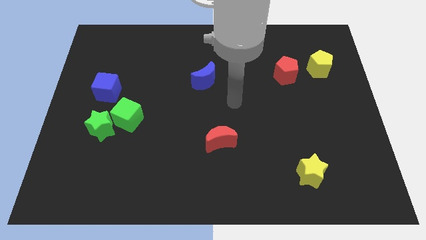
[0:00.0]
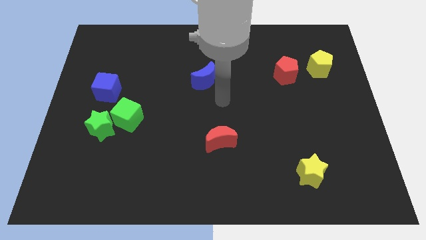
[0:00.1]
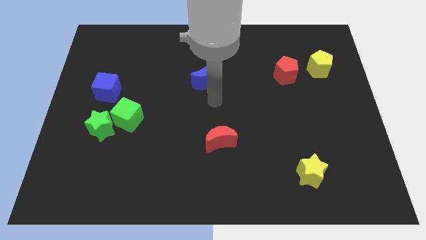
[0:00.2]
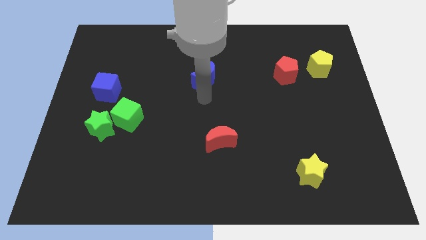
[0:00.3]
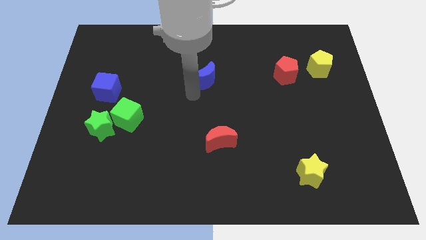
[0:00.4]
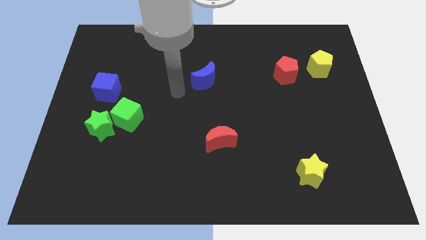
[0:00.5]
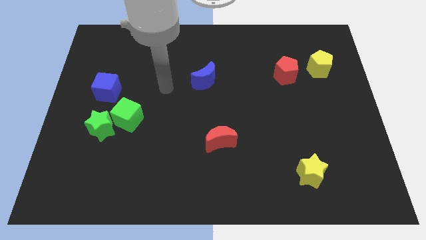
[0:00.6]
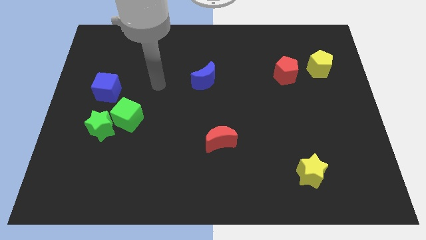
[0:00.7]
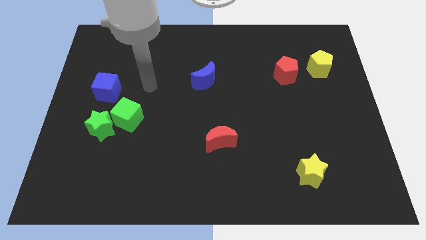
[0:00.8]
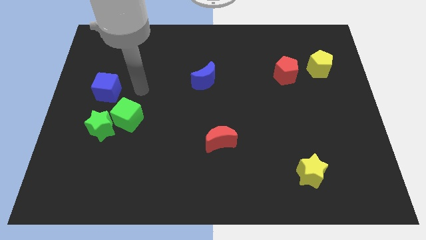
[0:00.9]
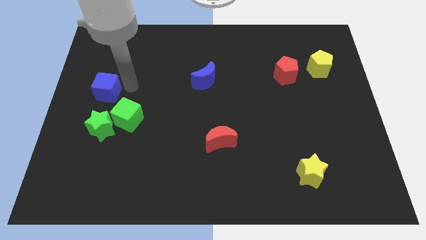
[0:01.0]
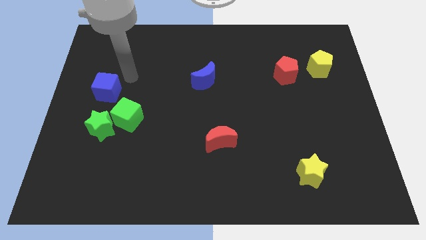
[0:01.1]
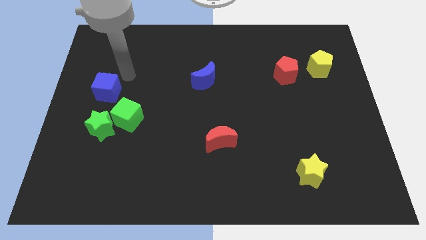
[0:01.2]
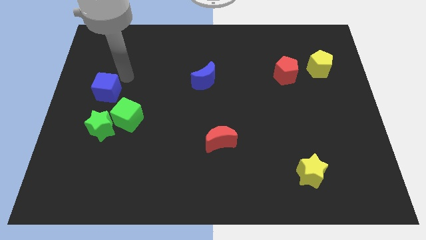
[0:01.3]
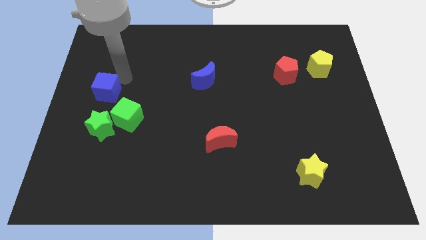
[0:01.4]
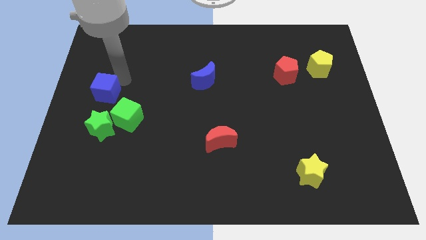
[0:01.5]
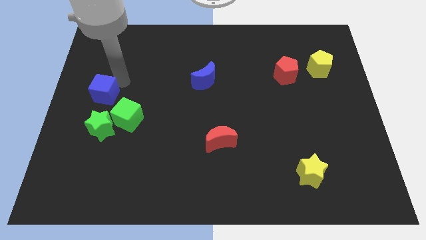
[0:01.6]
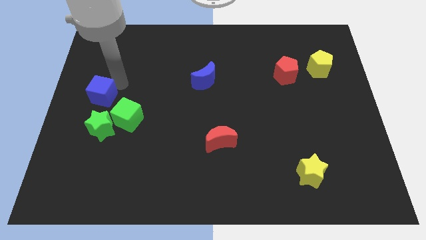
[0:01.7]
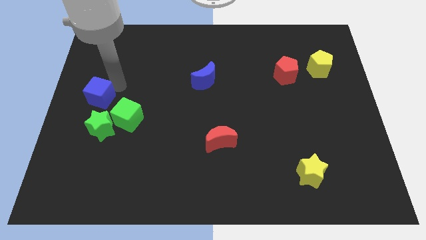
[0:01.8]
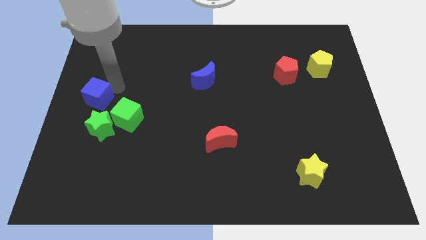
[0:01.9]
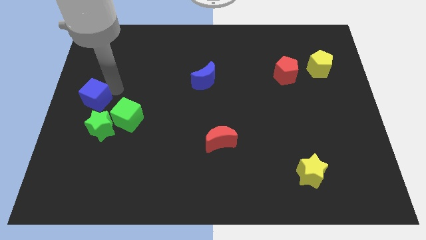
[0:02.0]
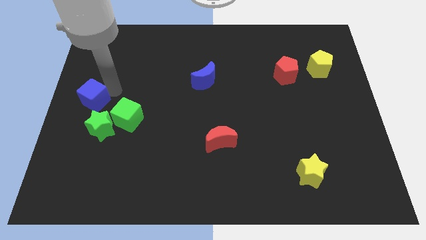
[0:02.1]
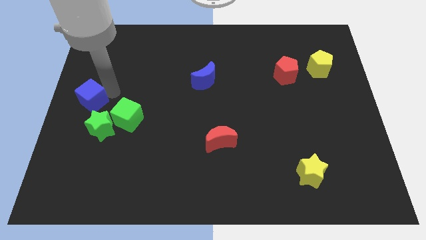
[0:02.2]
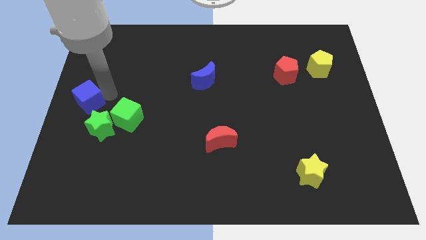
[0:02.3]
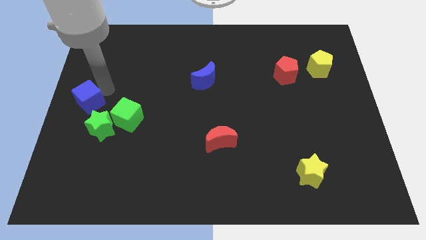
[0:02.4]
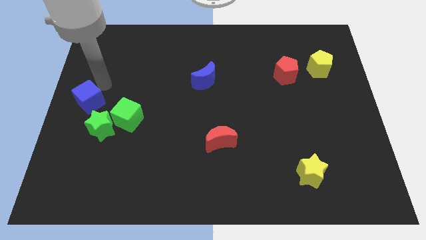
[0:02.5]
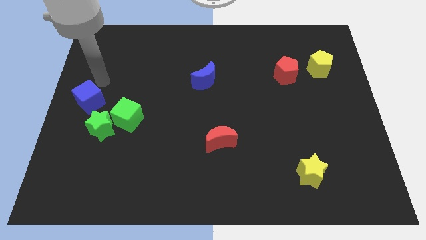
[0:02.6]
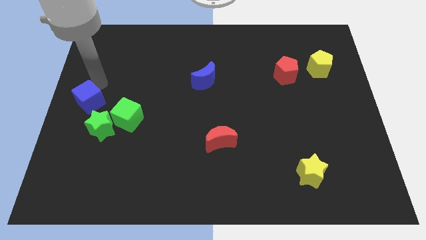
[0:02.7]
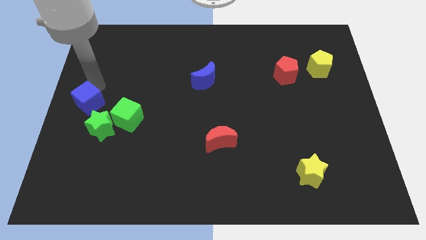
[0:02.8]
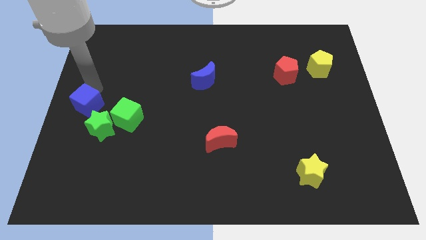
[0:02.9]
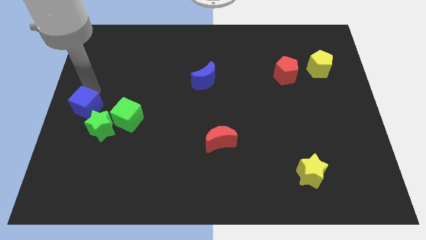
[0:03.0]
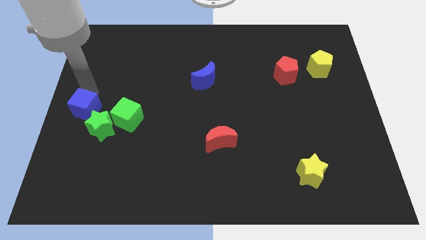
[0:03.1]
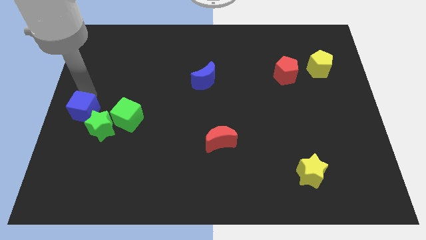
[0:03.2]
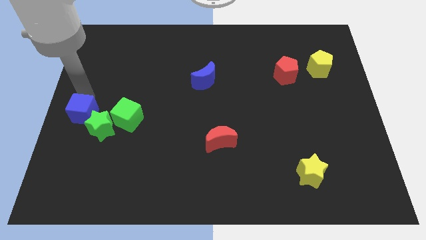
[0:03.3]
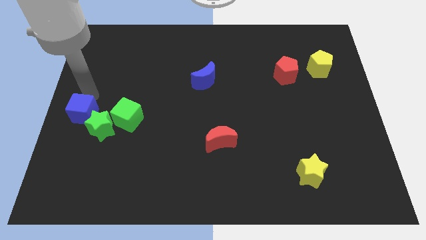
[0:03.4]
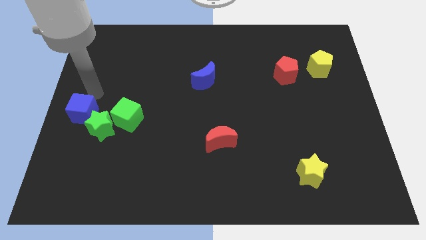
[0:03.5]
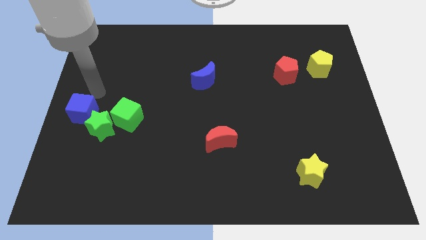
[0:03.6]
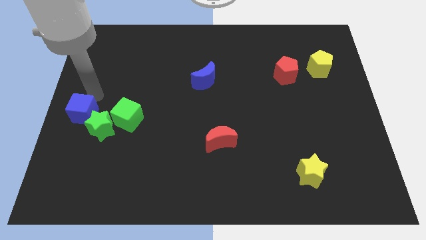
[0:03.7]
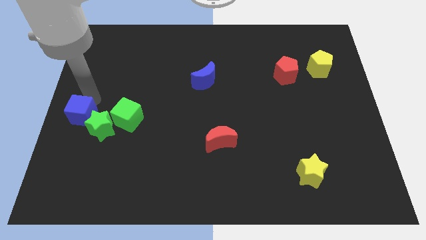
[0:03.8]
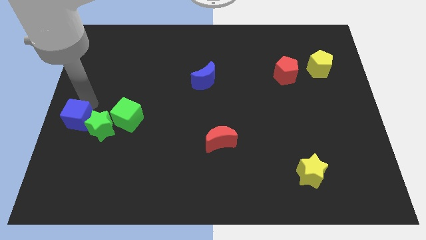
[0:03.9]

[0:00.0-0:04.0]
slightly push the blue cube downwards

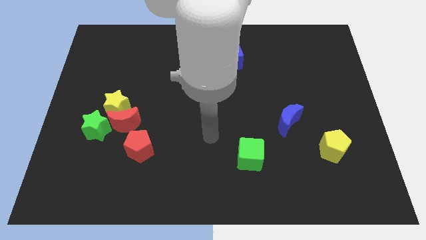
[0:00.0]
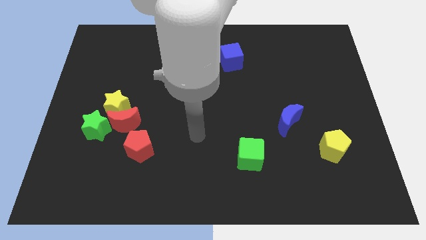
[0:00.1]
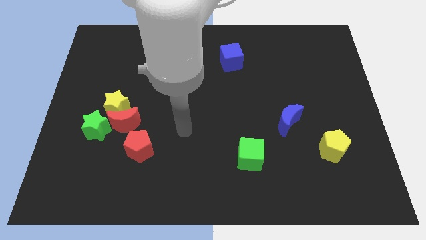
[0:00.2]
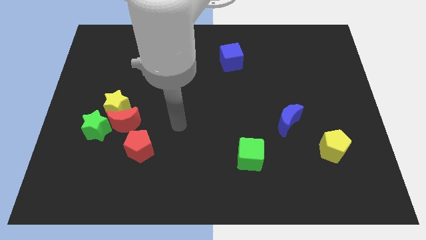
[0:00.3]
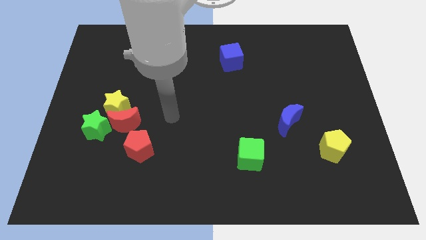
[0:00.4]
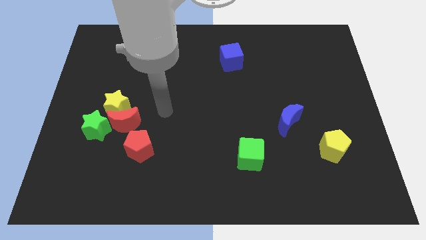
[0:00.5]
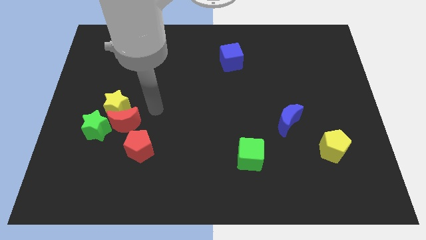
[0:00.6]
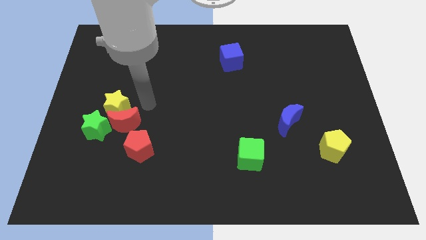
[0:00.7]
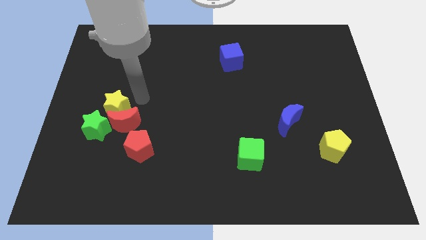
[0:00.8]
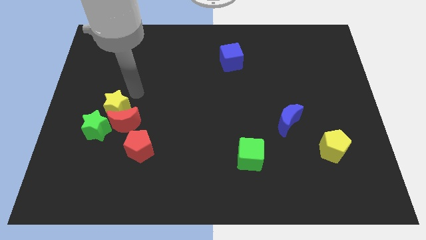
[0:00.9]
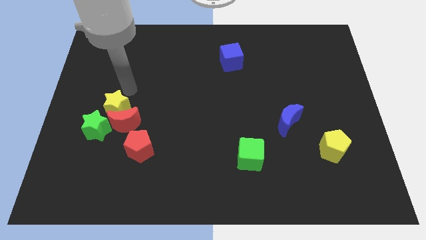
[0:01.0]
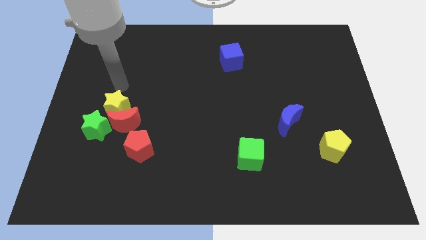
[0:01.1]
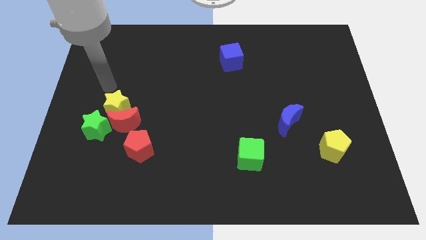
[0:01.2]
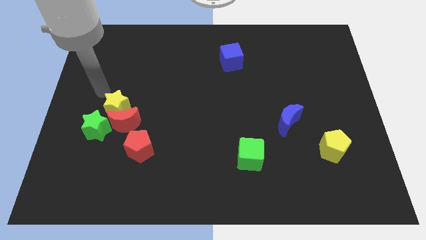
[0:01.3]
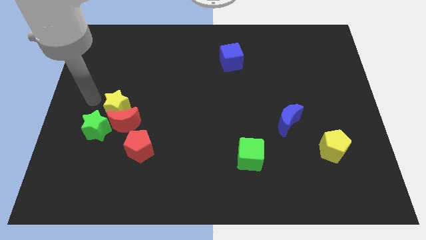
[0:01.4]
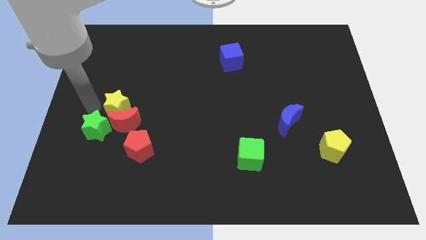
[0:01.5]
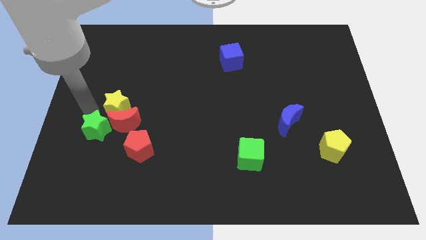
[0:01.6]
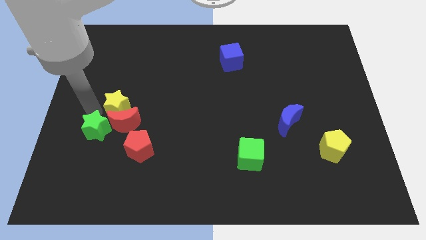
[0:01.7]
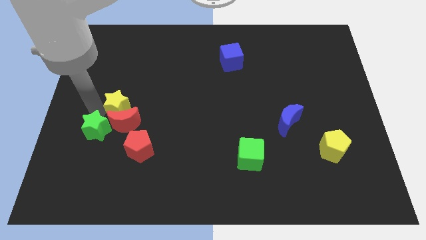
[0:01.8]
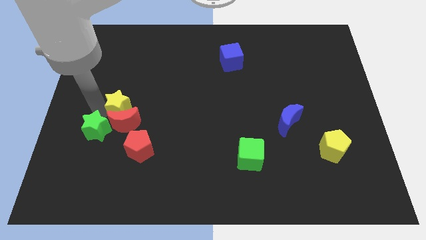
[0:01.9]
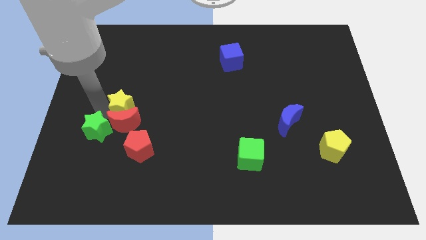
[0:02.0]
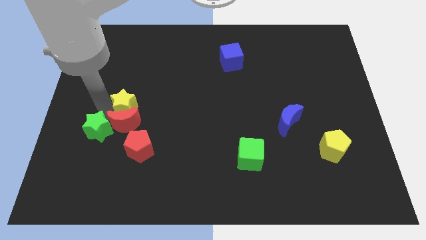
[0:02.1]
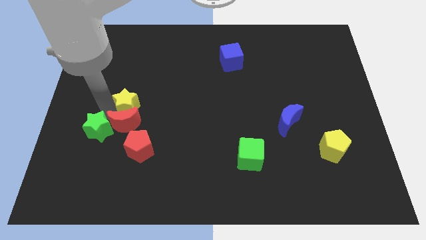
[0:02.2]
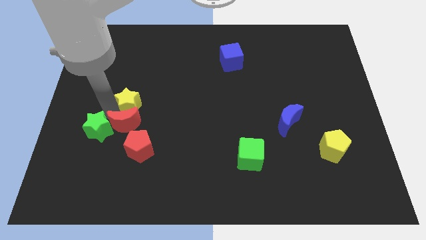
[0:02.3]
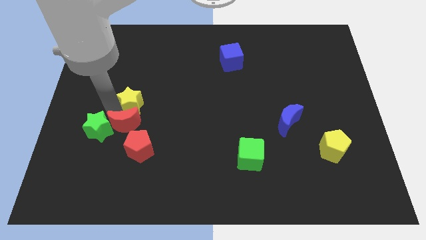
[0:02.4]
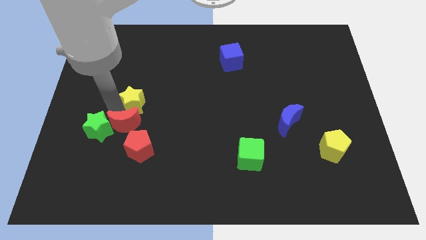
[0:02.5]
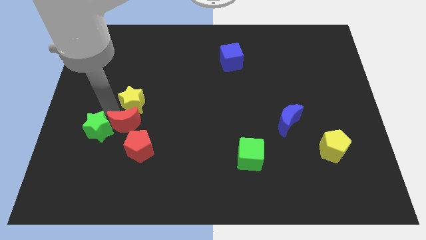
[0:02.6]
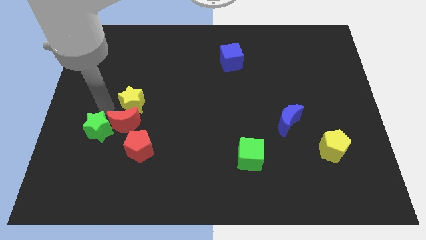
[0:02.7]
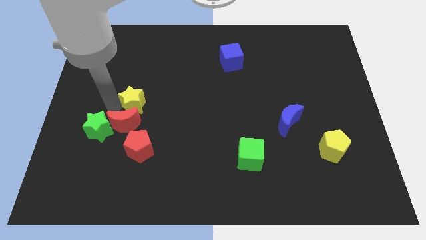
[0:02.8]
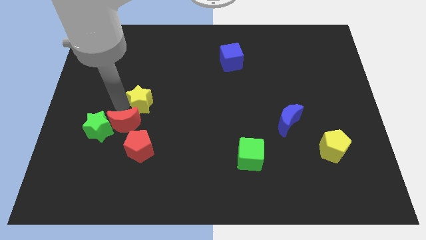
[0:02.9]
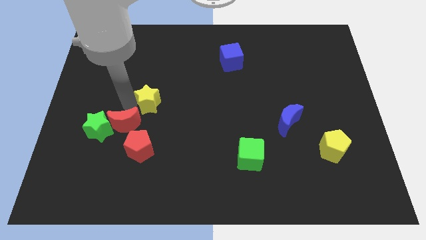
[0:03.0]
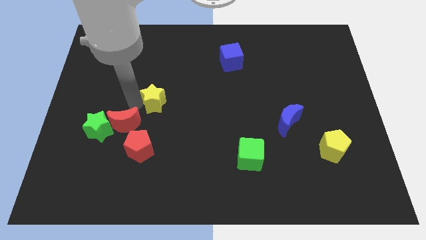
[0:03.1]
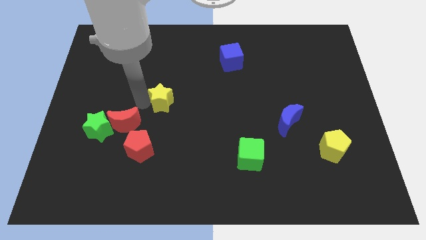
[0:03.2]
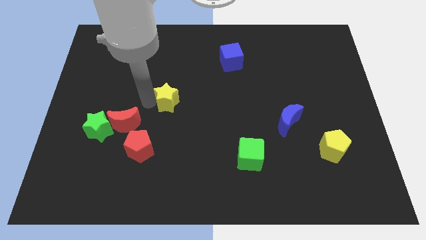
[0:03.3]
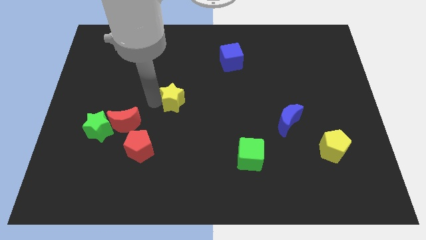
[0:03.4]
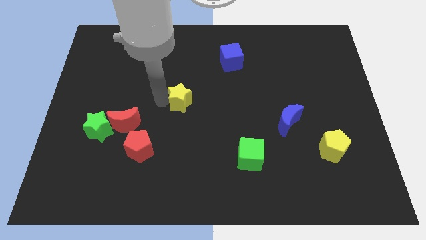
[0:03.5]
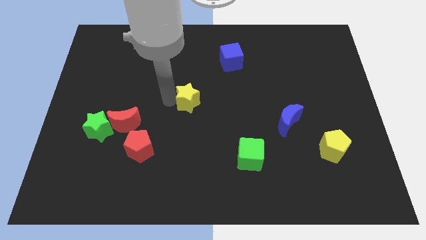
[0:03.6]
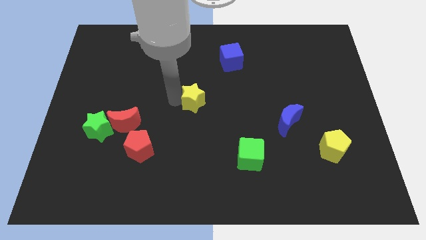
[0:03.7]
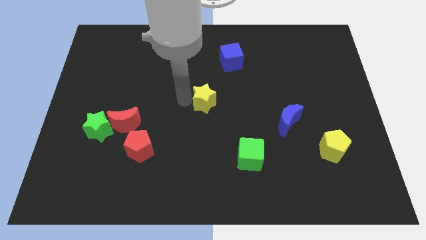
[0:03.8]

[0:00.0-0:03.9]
push the yellow star right
